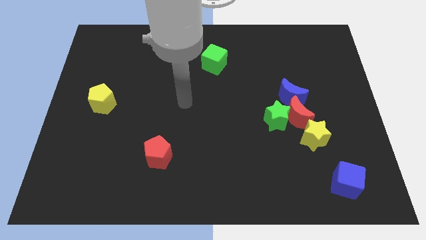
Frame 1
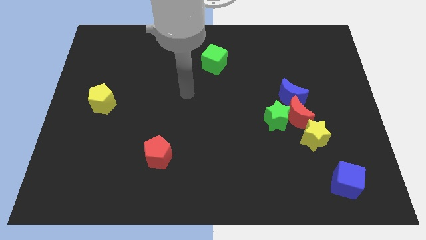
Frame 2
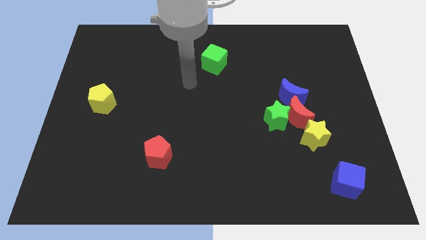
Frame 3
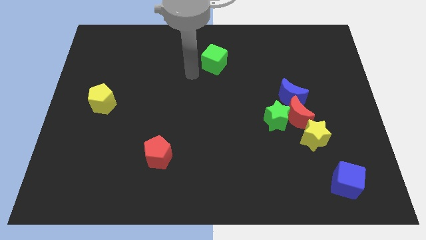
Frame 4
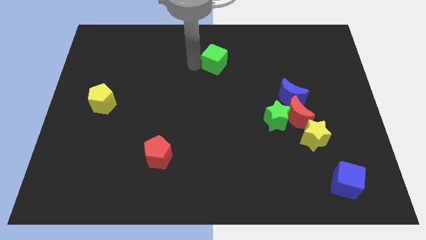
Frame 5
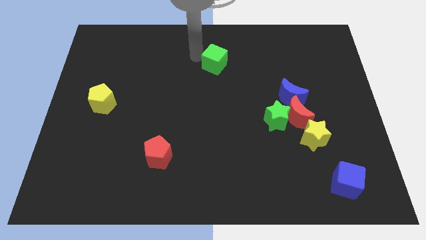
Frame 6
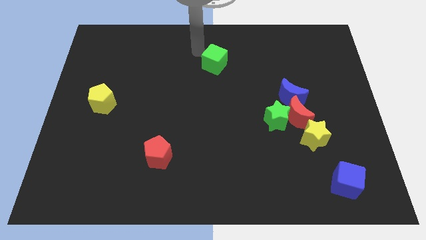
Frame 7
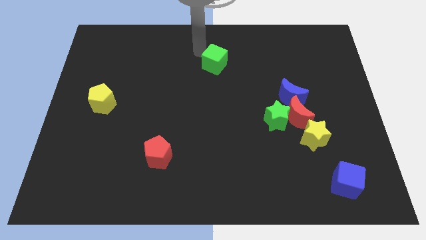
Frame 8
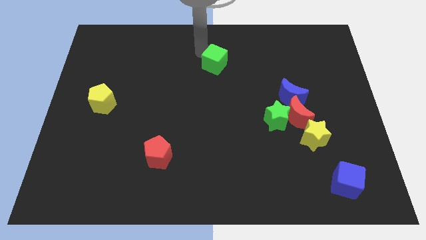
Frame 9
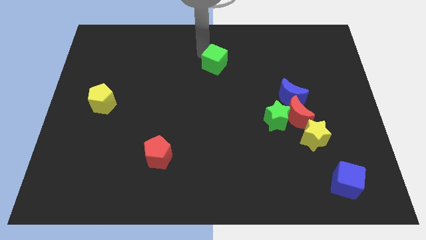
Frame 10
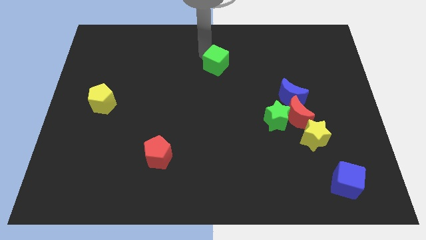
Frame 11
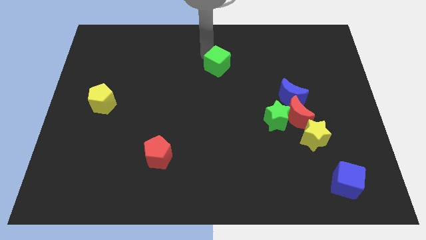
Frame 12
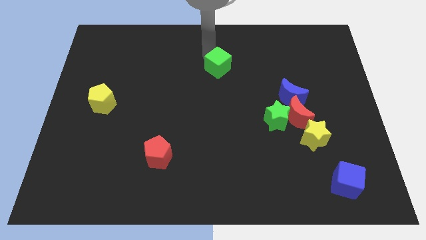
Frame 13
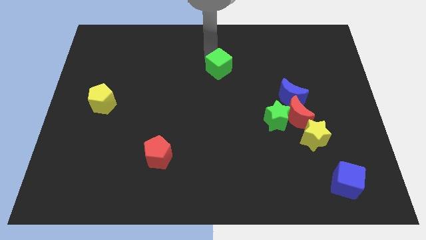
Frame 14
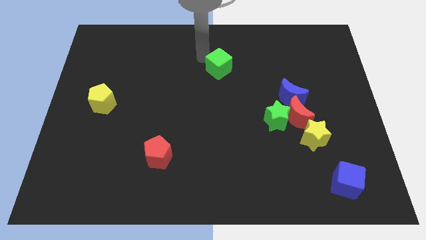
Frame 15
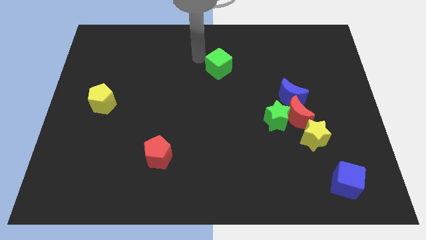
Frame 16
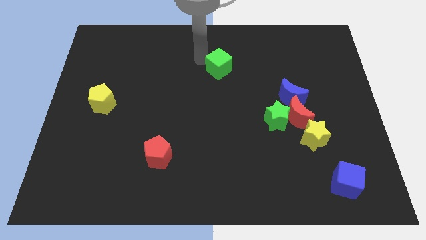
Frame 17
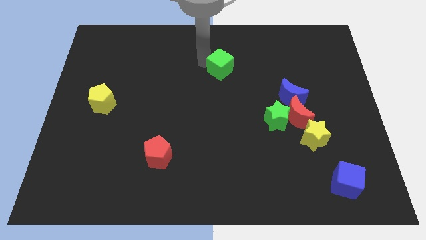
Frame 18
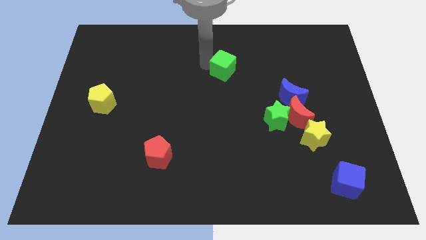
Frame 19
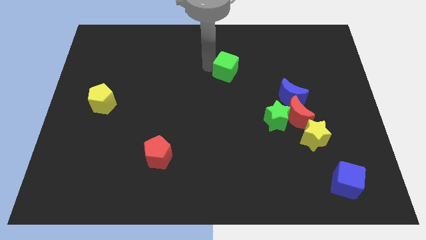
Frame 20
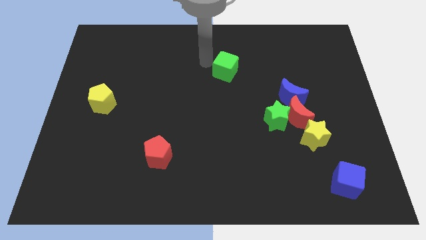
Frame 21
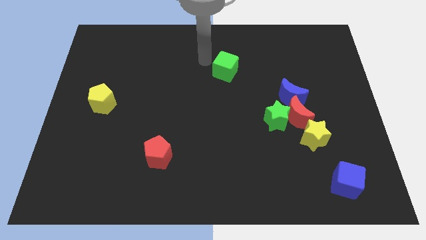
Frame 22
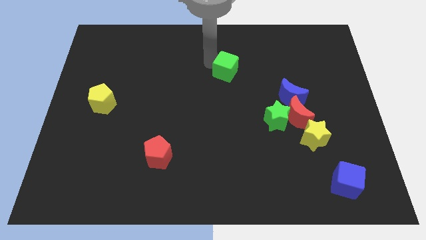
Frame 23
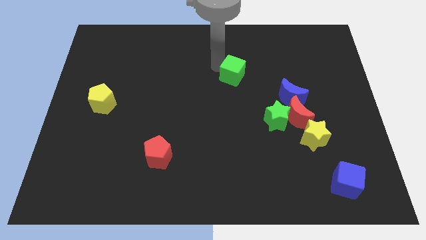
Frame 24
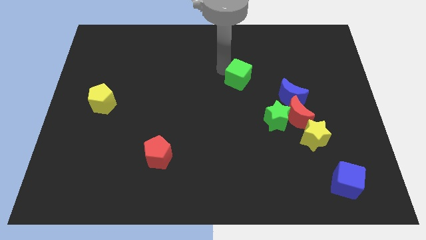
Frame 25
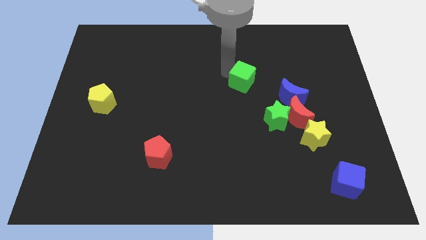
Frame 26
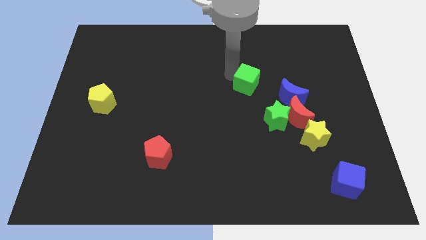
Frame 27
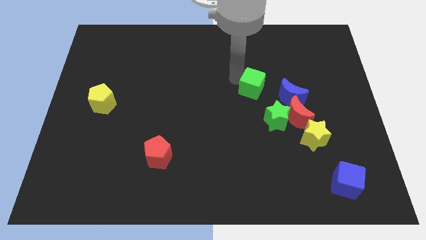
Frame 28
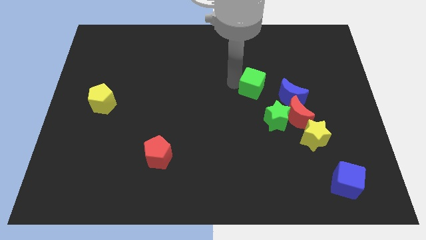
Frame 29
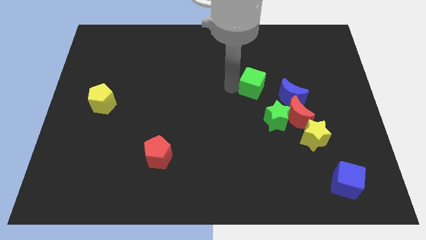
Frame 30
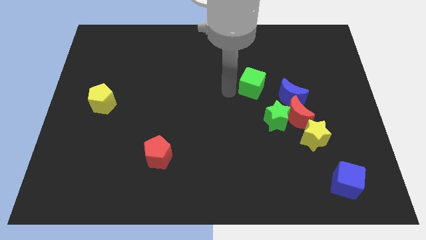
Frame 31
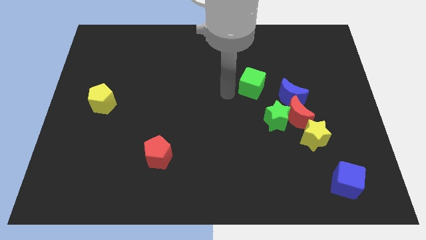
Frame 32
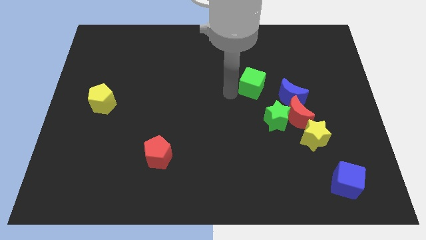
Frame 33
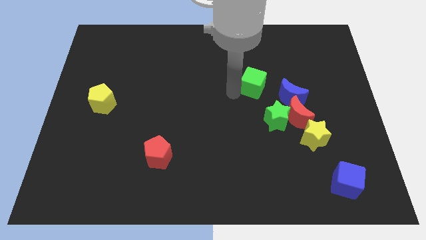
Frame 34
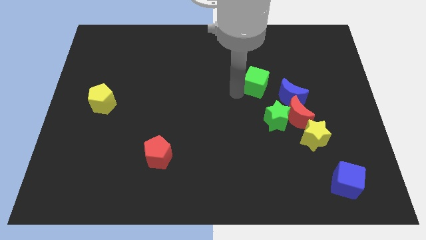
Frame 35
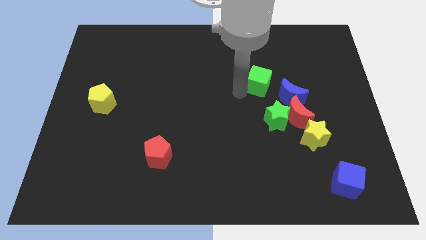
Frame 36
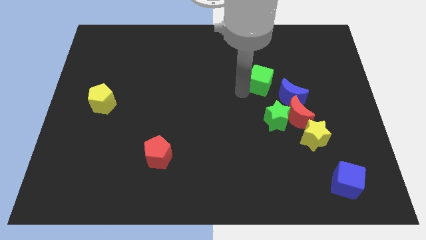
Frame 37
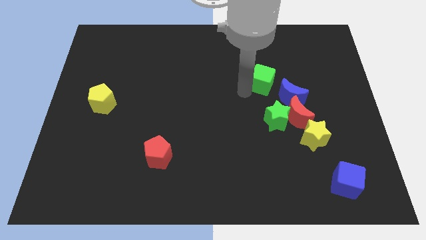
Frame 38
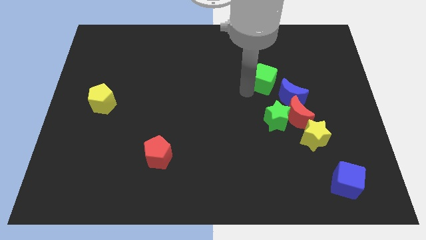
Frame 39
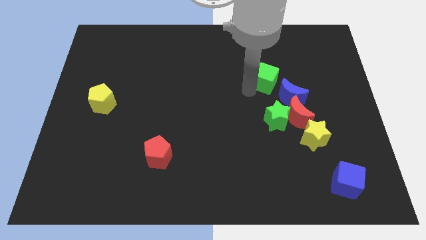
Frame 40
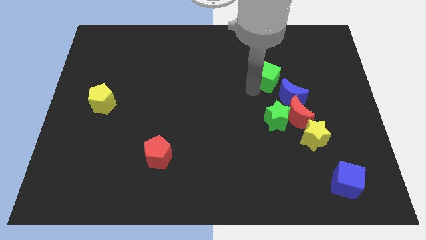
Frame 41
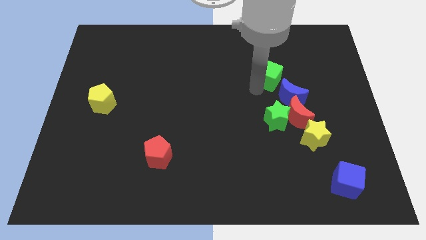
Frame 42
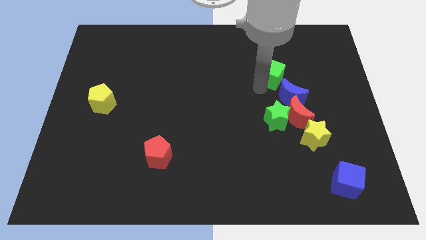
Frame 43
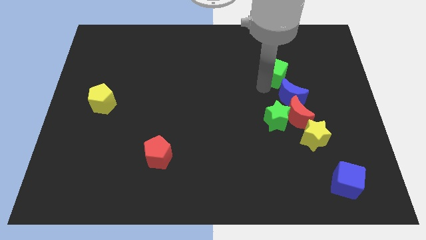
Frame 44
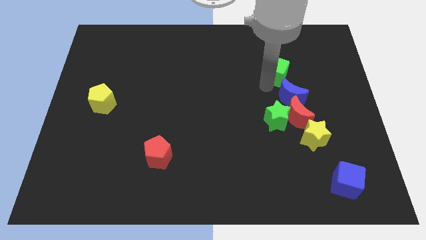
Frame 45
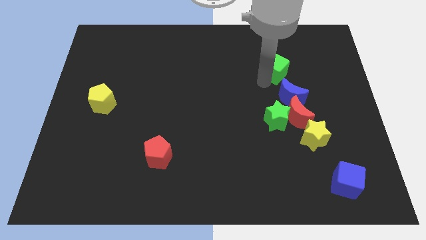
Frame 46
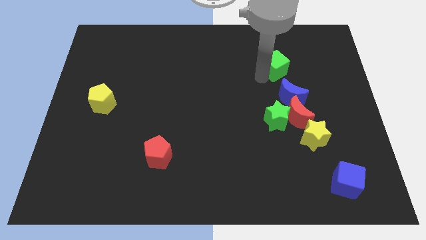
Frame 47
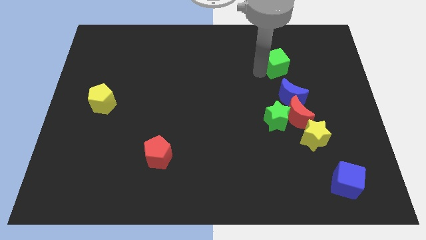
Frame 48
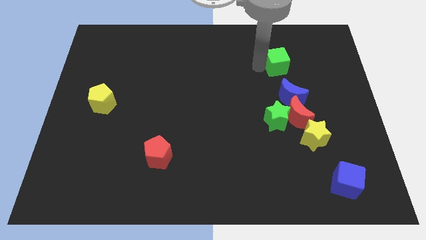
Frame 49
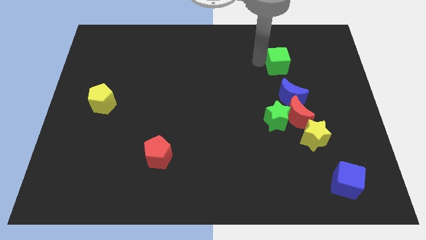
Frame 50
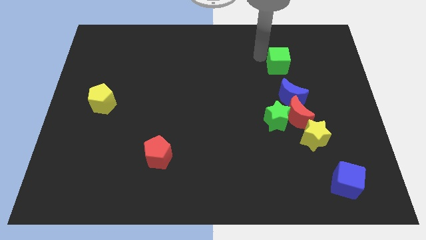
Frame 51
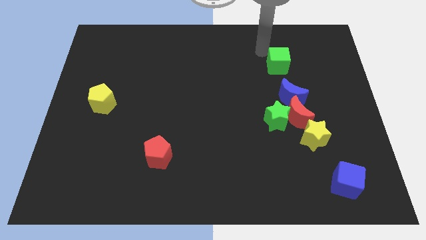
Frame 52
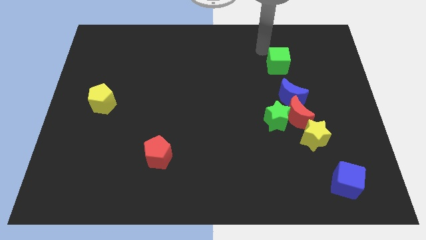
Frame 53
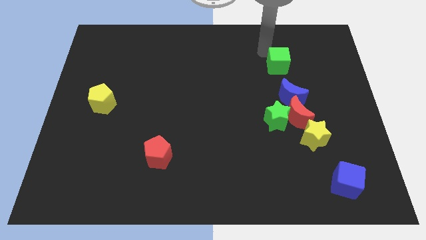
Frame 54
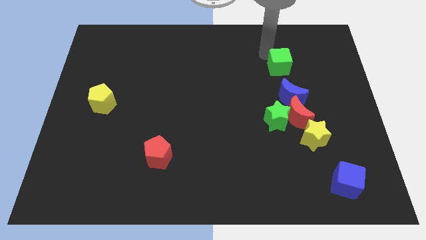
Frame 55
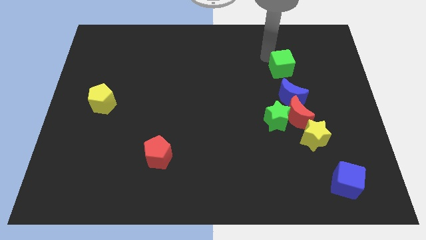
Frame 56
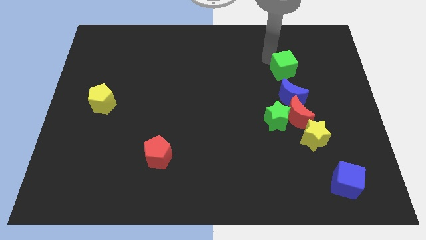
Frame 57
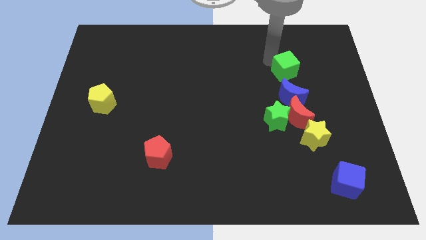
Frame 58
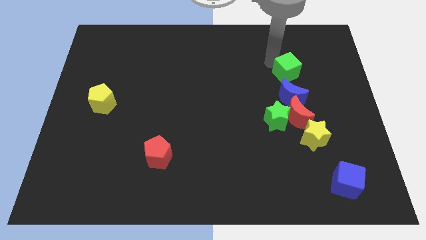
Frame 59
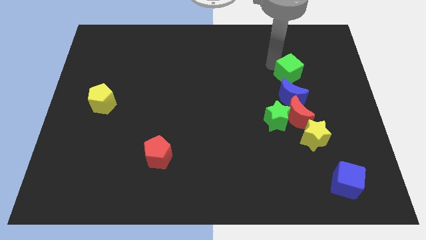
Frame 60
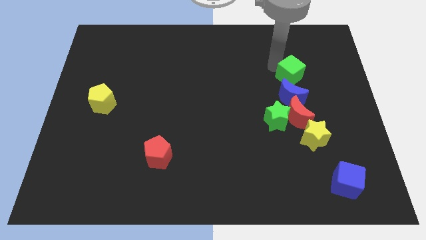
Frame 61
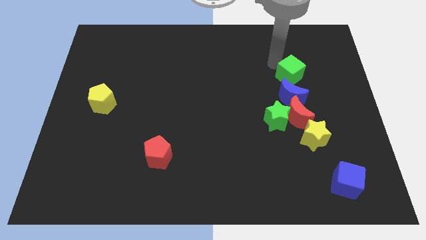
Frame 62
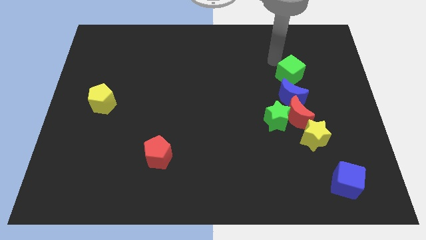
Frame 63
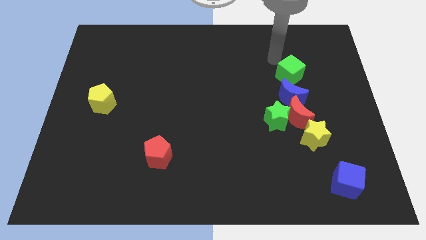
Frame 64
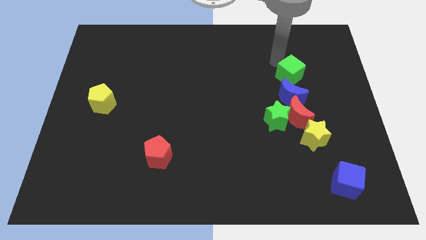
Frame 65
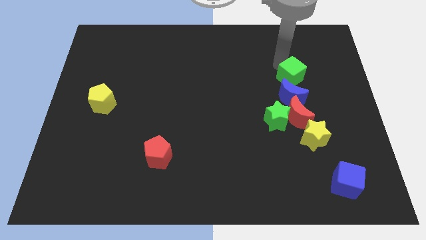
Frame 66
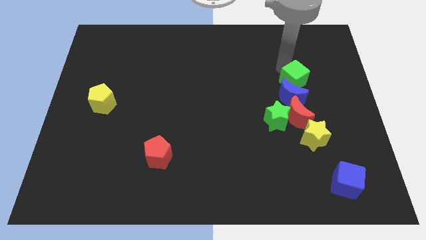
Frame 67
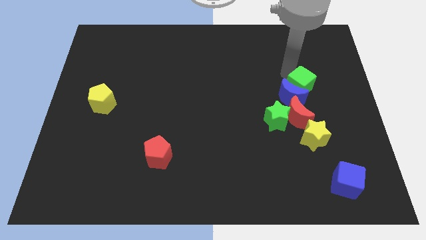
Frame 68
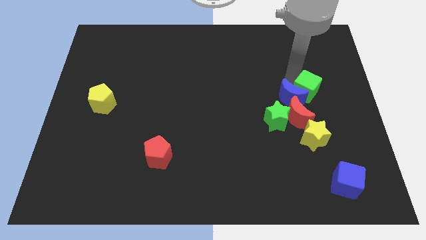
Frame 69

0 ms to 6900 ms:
push the green cube to the top right of the red moon

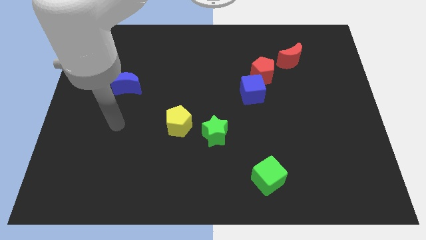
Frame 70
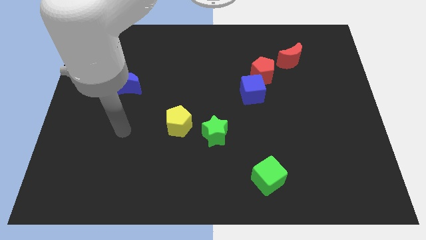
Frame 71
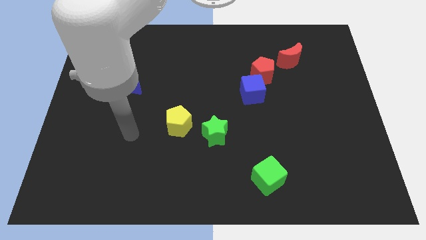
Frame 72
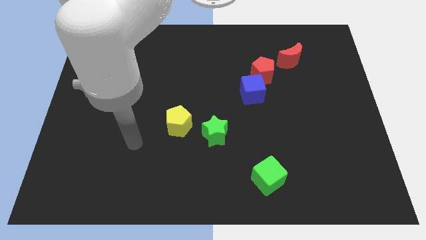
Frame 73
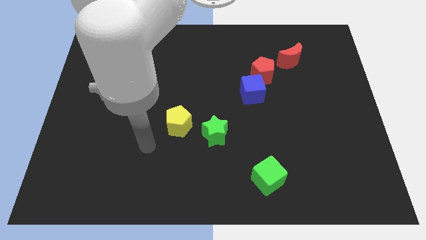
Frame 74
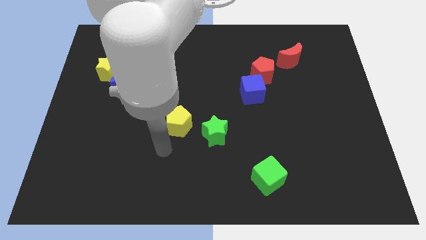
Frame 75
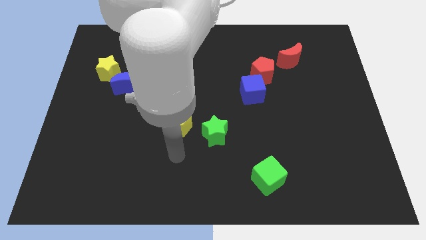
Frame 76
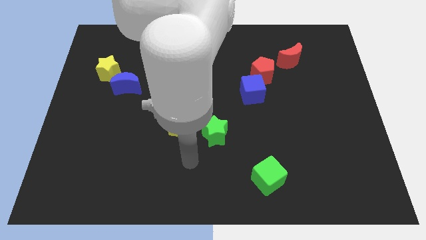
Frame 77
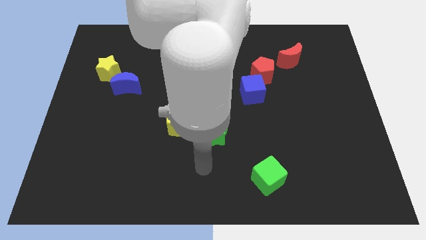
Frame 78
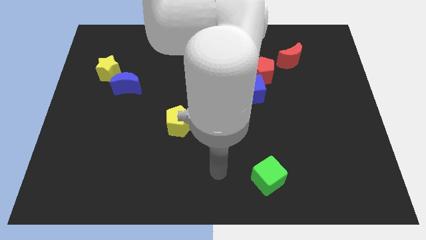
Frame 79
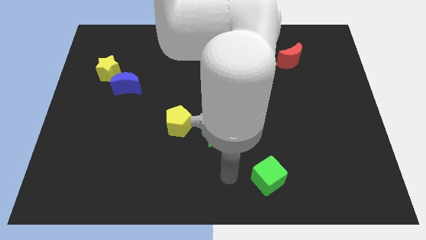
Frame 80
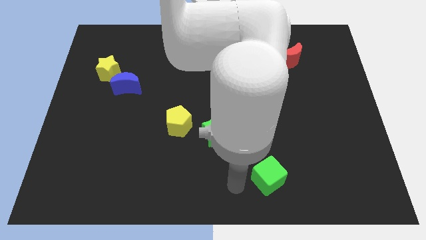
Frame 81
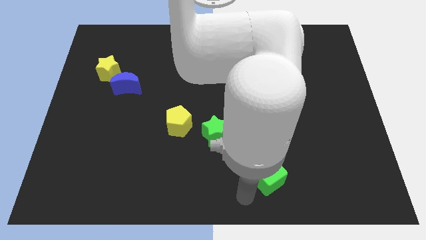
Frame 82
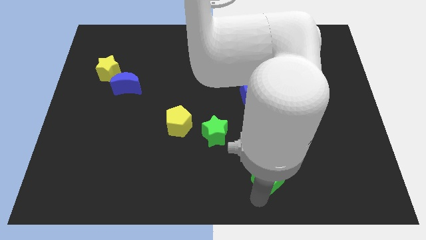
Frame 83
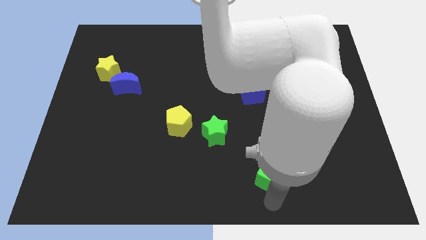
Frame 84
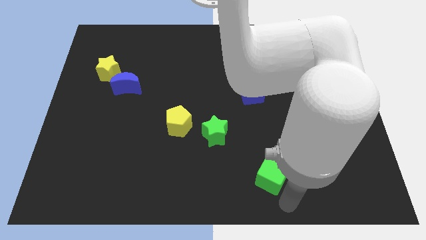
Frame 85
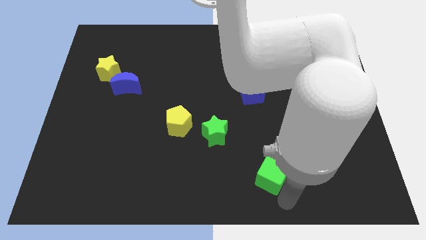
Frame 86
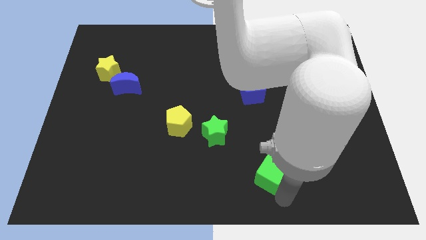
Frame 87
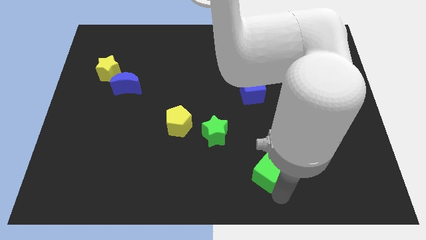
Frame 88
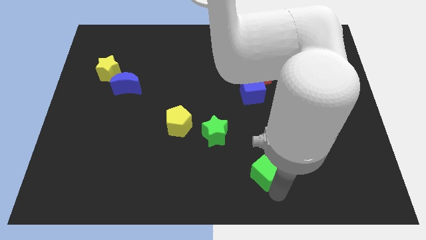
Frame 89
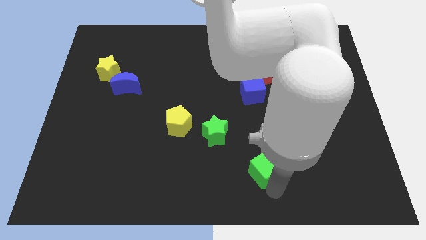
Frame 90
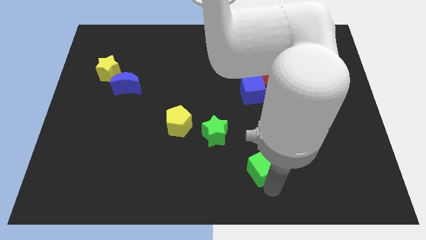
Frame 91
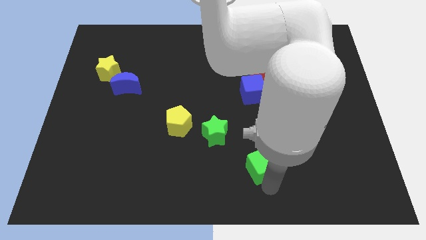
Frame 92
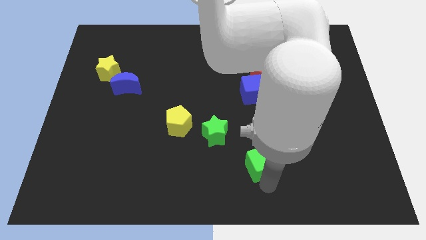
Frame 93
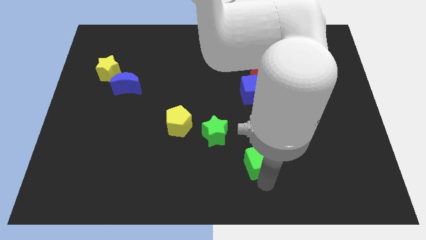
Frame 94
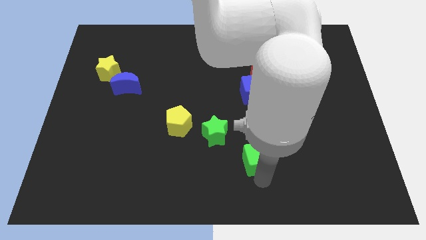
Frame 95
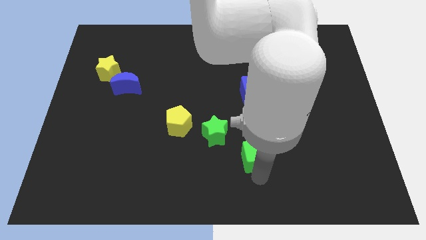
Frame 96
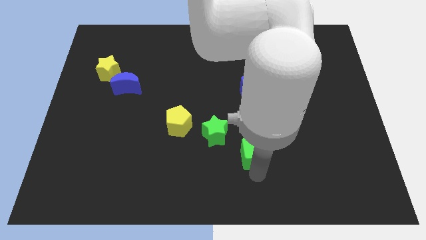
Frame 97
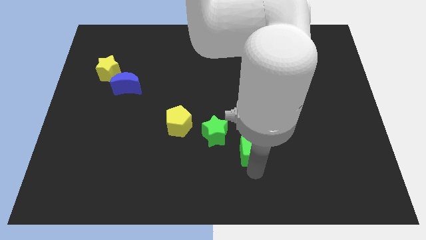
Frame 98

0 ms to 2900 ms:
push the green cube to the right of the green star
